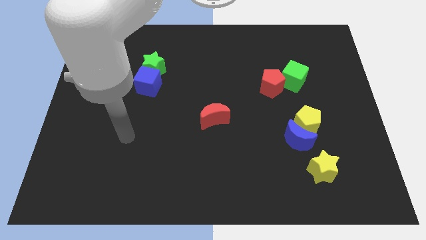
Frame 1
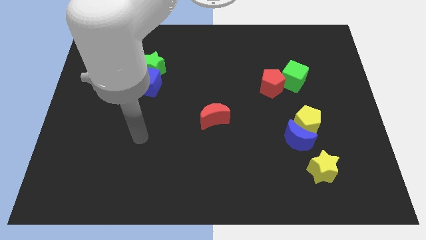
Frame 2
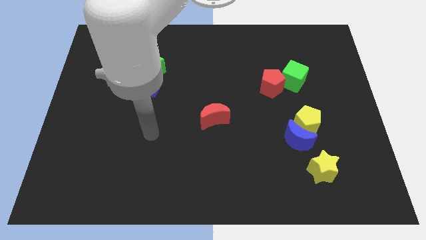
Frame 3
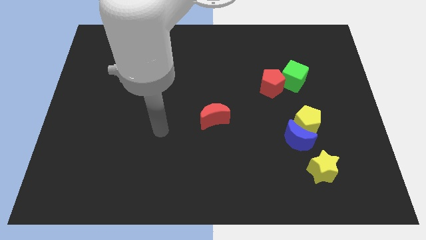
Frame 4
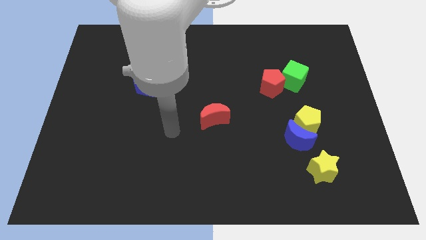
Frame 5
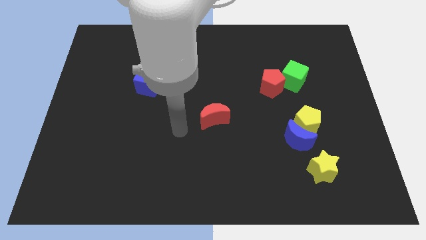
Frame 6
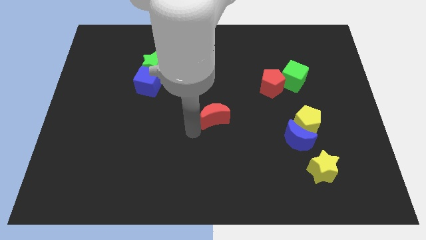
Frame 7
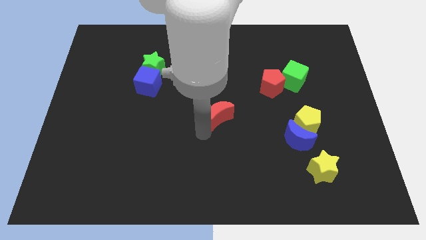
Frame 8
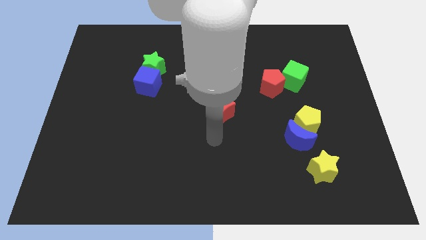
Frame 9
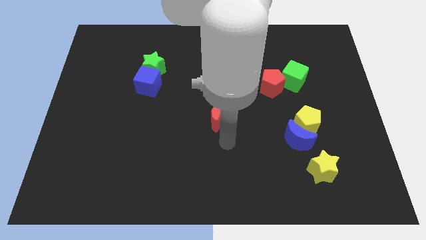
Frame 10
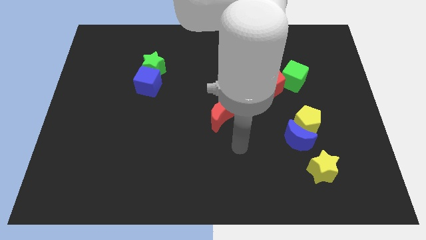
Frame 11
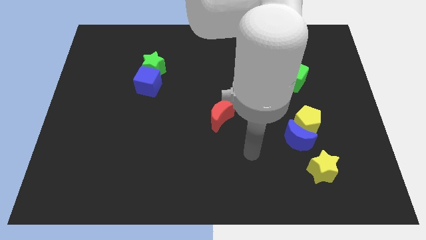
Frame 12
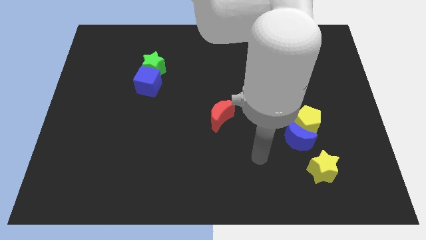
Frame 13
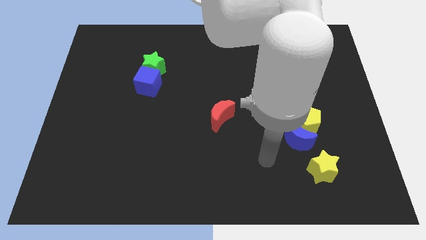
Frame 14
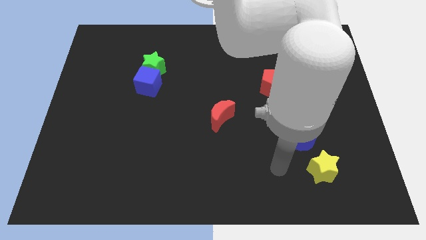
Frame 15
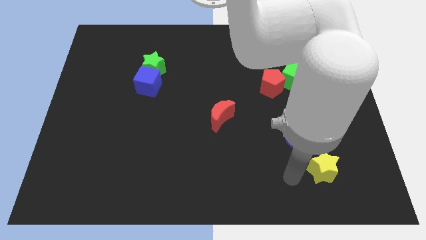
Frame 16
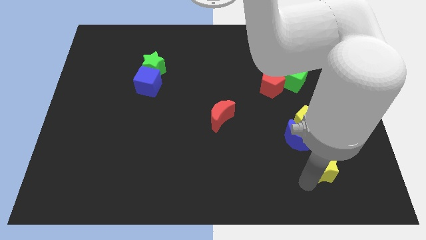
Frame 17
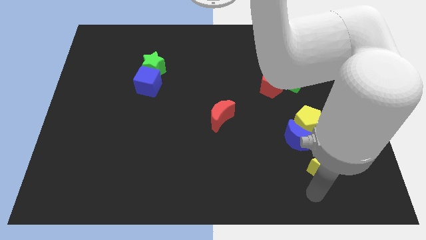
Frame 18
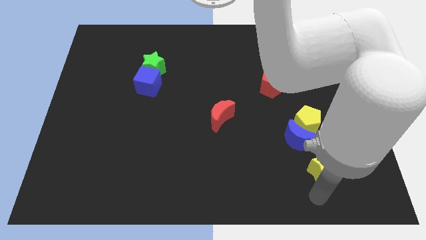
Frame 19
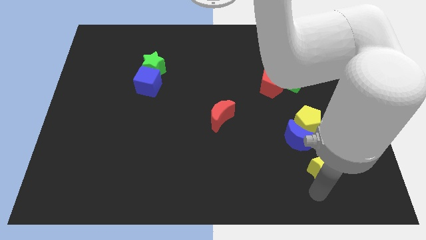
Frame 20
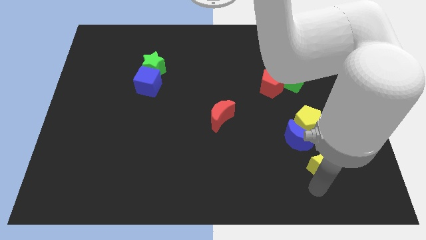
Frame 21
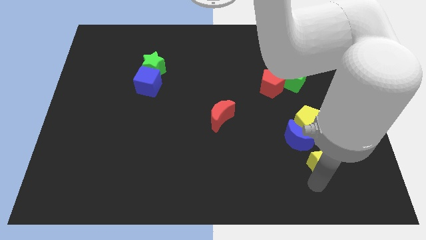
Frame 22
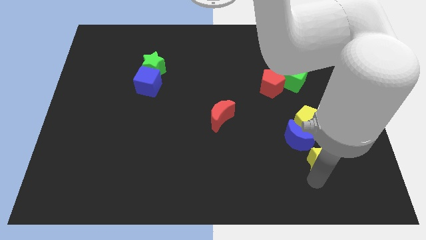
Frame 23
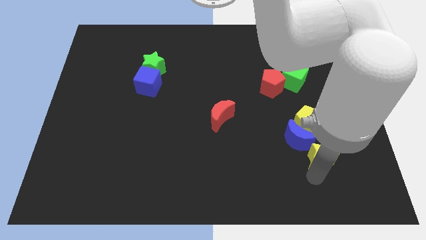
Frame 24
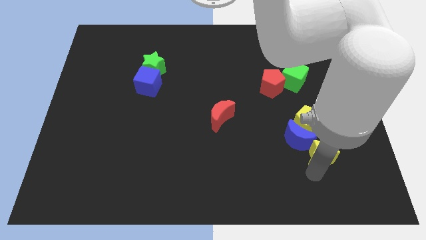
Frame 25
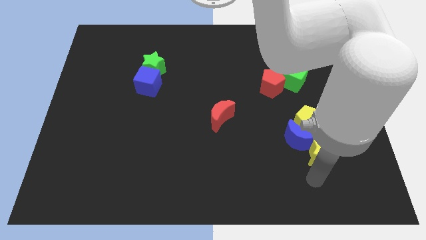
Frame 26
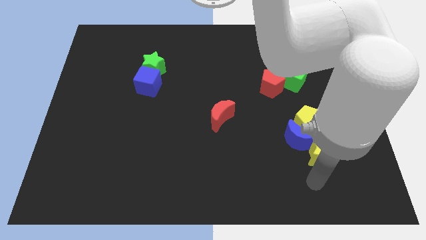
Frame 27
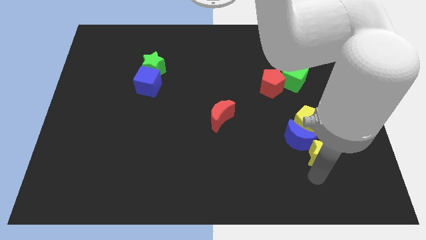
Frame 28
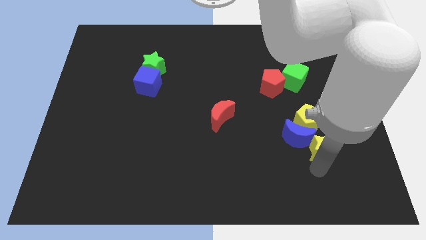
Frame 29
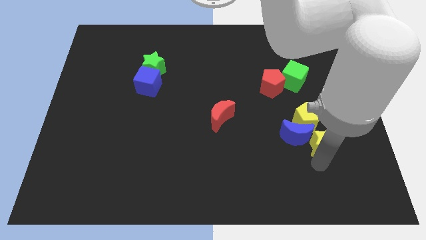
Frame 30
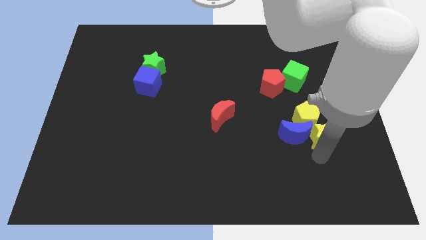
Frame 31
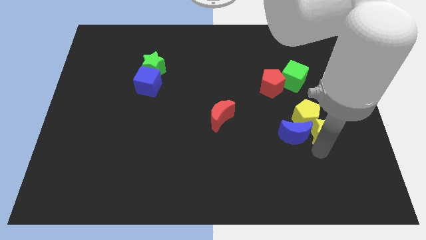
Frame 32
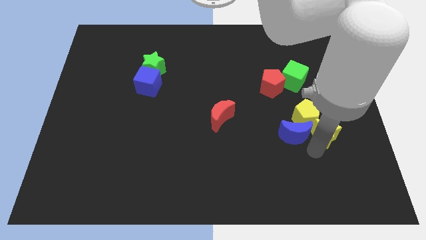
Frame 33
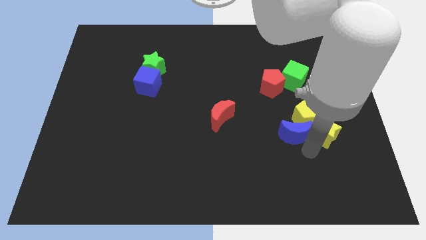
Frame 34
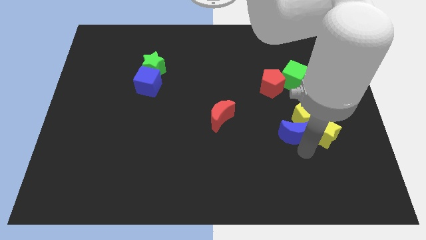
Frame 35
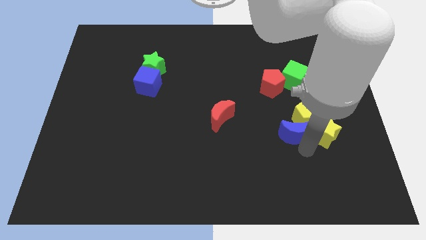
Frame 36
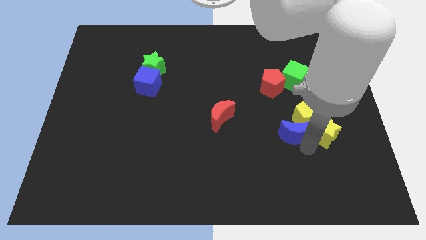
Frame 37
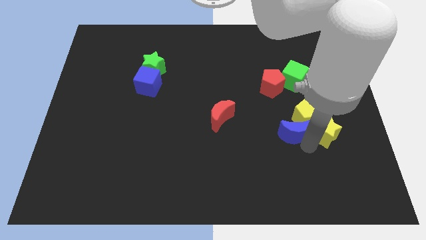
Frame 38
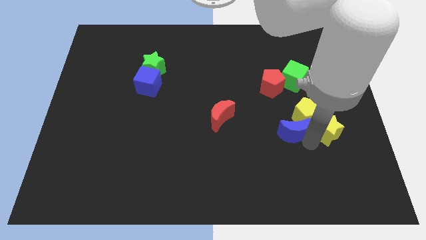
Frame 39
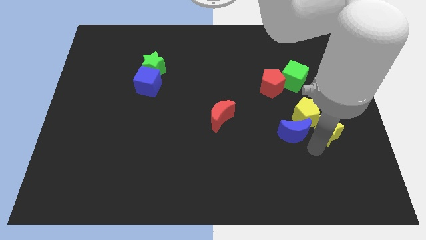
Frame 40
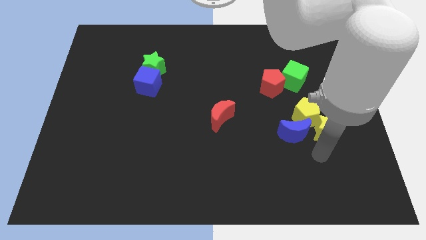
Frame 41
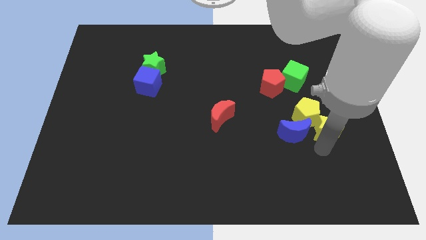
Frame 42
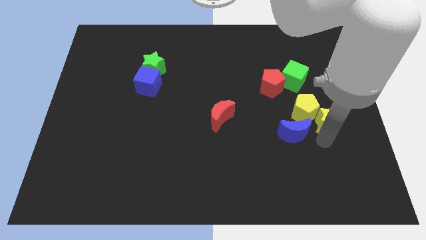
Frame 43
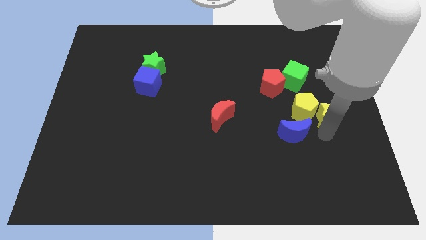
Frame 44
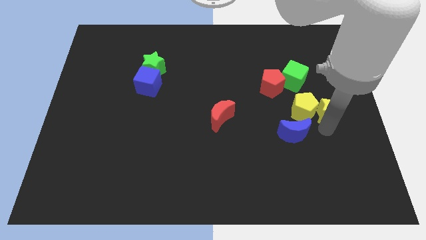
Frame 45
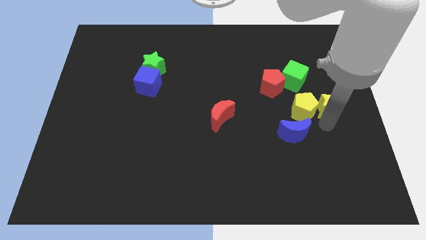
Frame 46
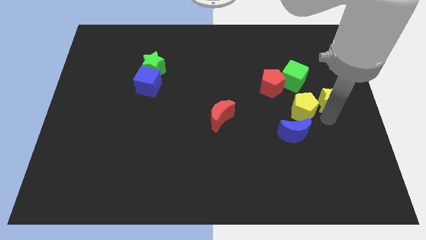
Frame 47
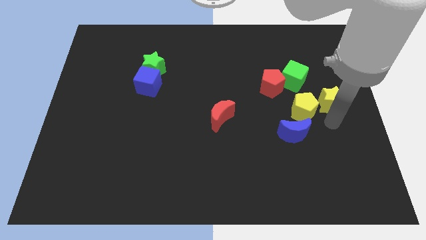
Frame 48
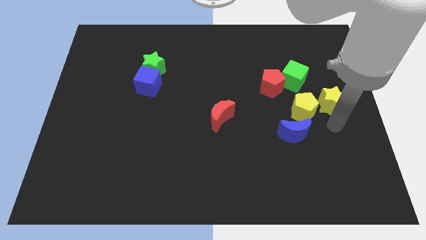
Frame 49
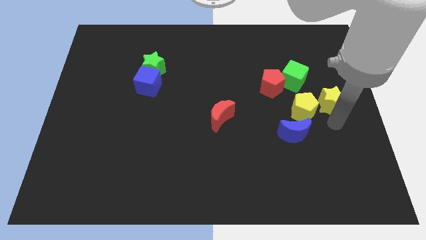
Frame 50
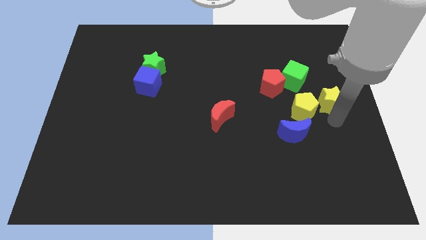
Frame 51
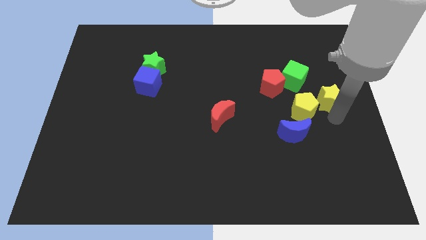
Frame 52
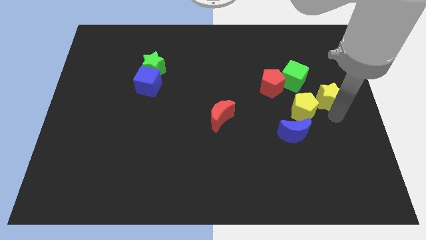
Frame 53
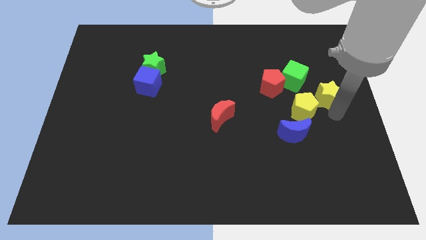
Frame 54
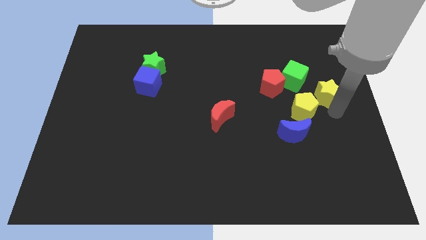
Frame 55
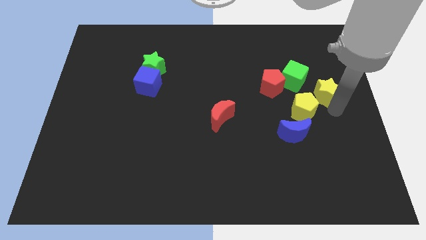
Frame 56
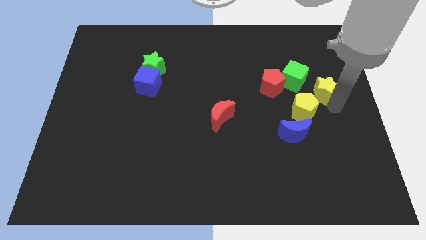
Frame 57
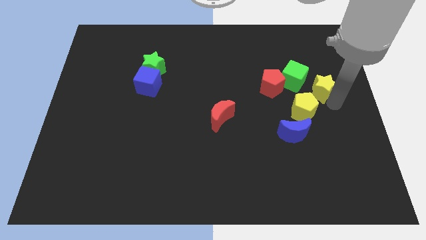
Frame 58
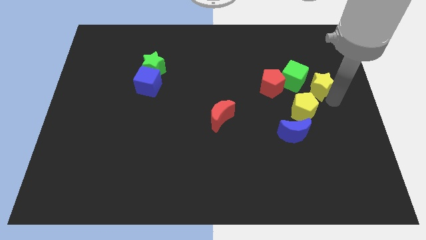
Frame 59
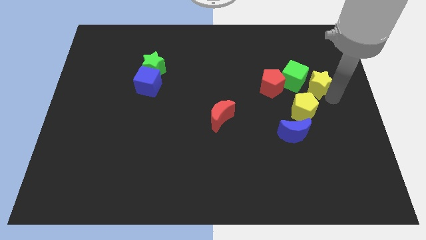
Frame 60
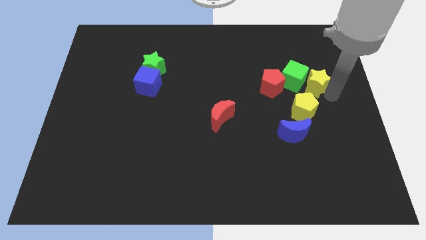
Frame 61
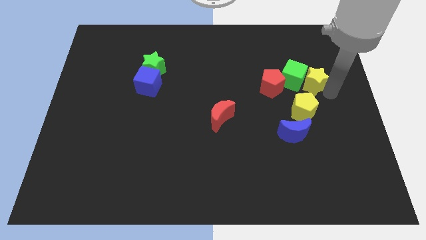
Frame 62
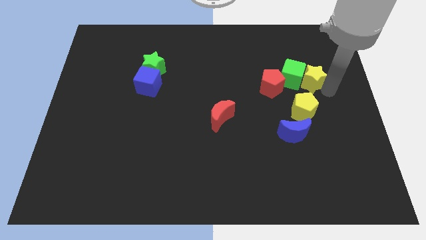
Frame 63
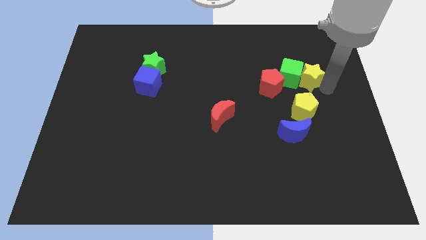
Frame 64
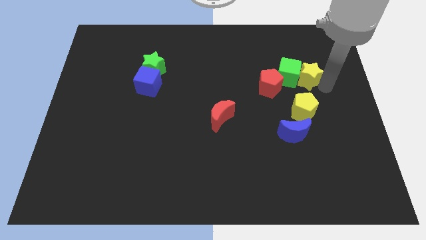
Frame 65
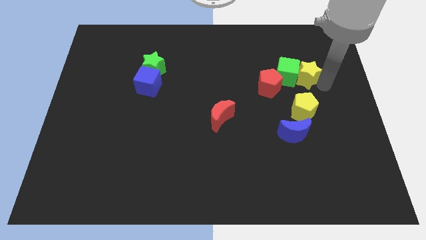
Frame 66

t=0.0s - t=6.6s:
put the yellow star diagonally up and to the right of the red pentagon

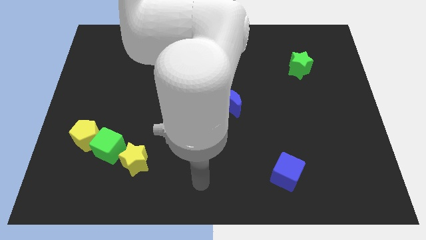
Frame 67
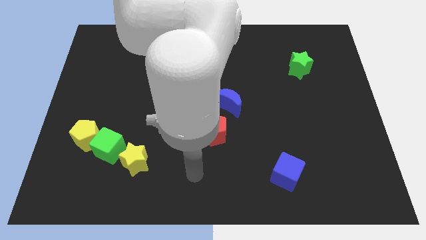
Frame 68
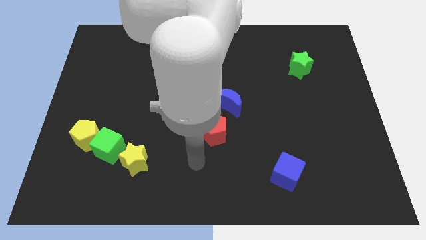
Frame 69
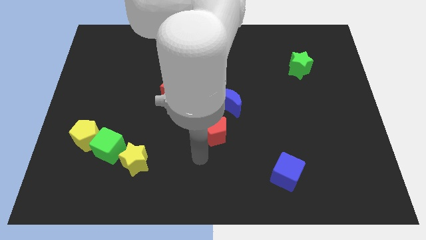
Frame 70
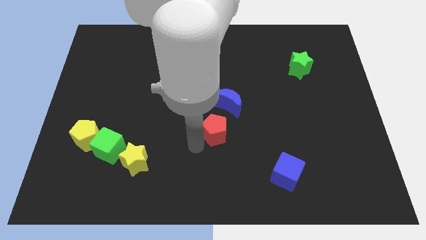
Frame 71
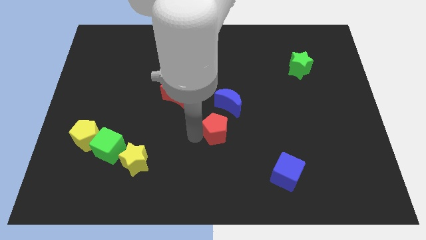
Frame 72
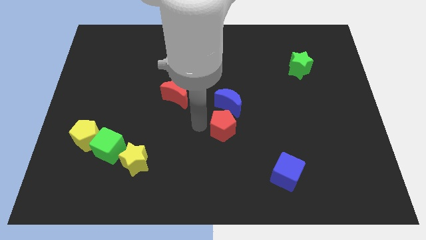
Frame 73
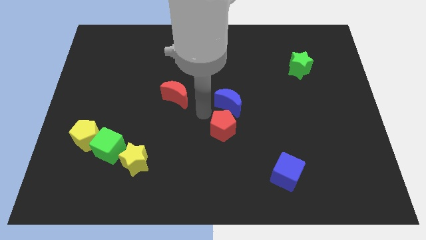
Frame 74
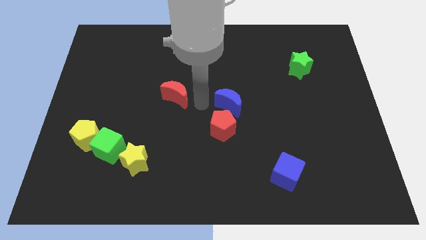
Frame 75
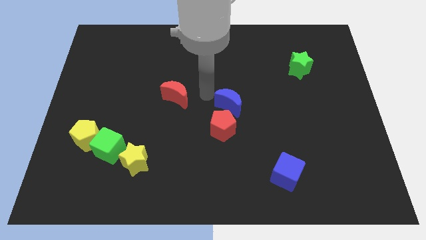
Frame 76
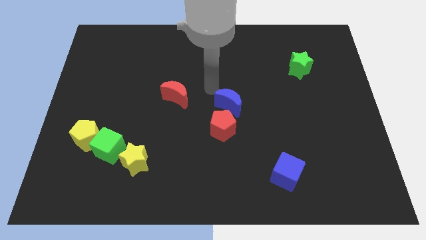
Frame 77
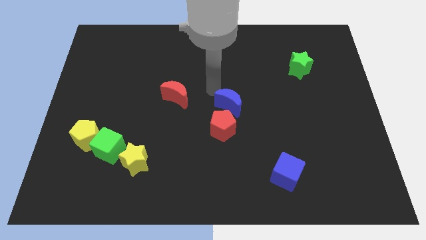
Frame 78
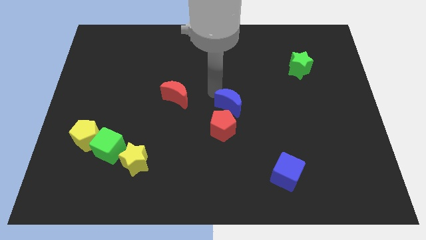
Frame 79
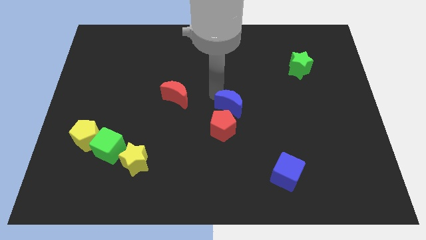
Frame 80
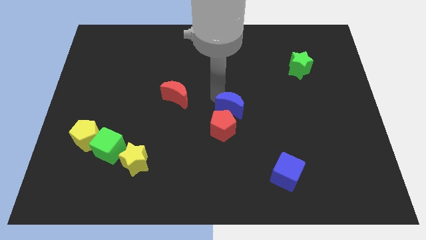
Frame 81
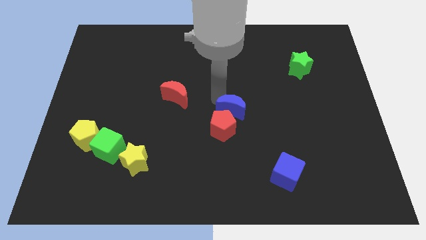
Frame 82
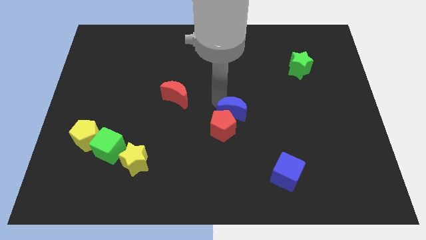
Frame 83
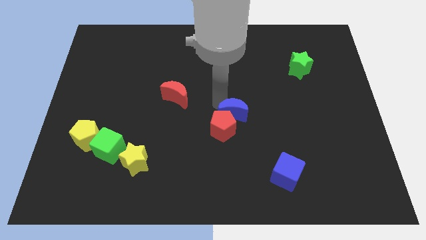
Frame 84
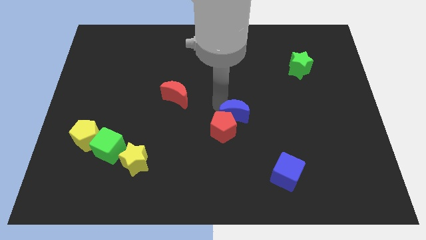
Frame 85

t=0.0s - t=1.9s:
put the blue moon just right of the red pentagon
